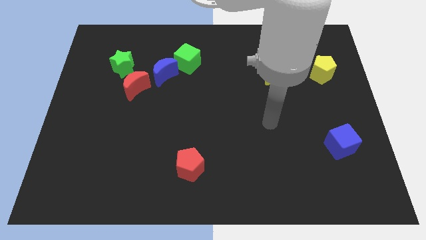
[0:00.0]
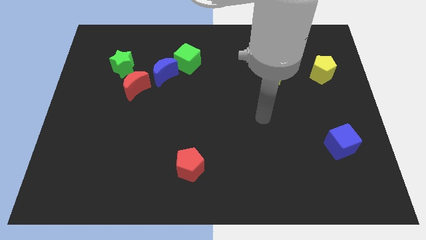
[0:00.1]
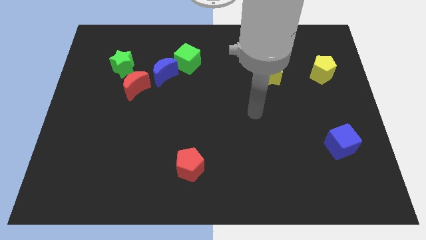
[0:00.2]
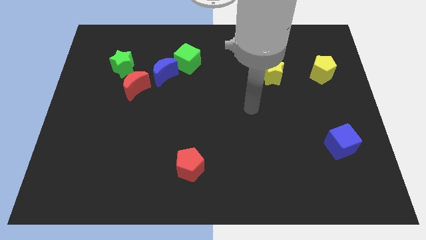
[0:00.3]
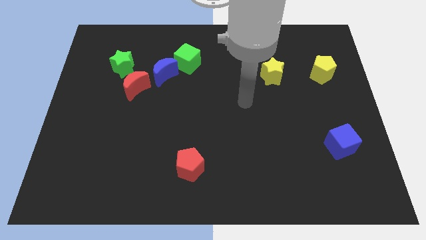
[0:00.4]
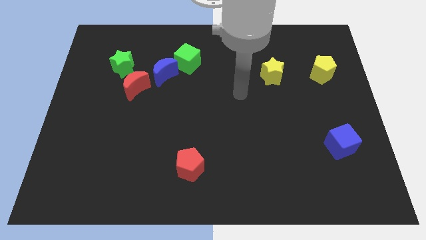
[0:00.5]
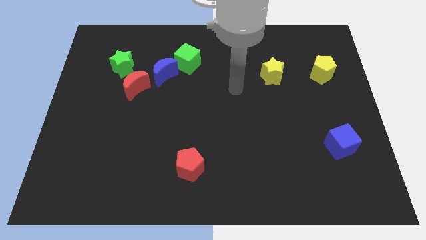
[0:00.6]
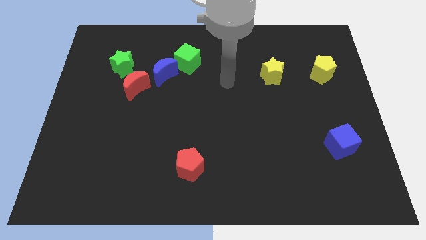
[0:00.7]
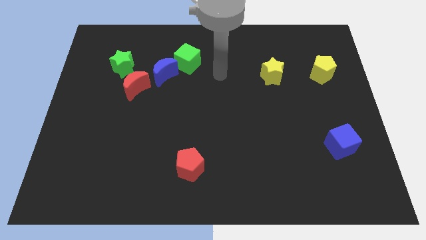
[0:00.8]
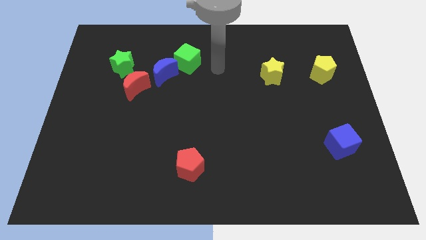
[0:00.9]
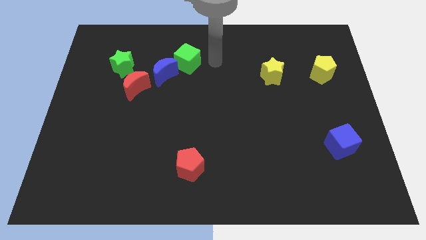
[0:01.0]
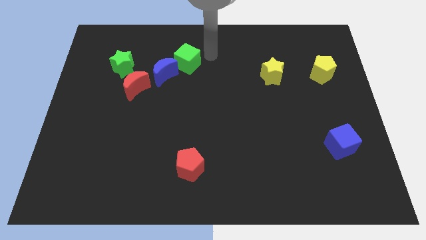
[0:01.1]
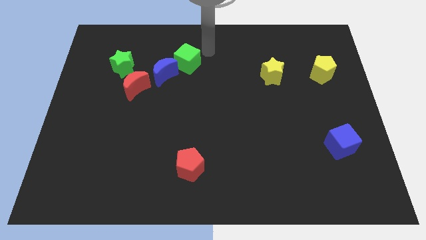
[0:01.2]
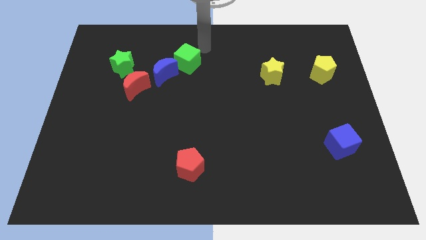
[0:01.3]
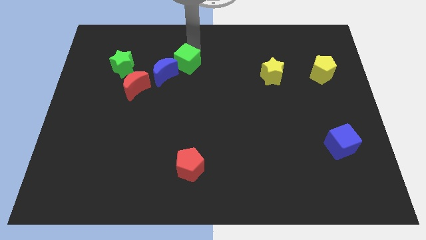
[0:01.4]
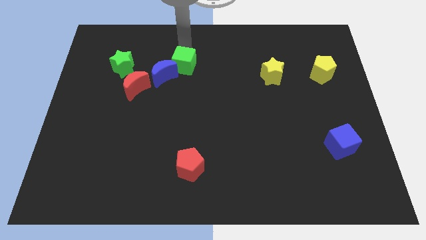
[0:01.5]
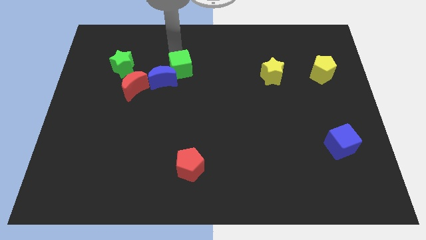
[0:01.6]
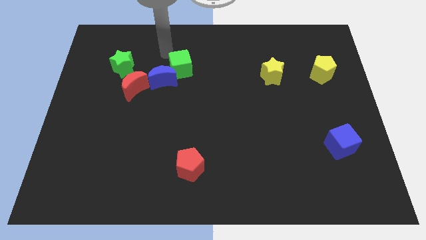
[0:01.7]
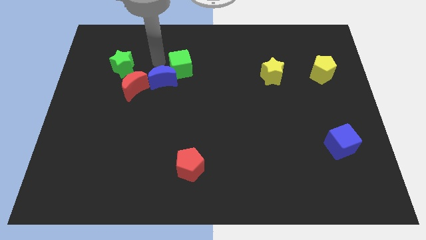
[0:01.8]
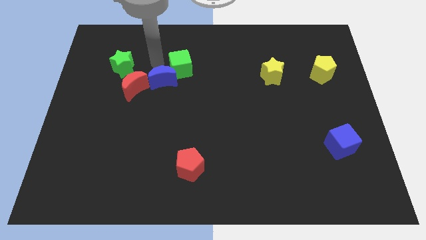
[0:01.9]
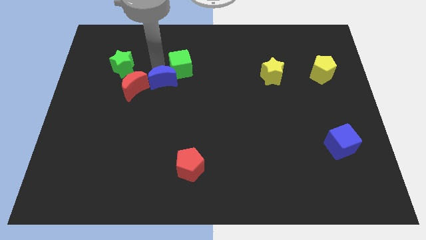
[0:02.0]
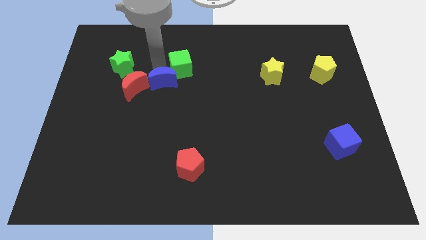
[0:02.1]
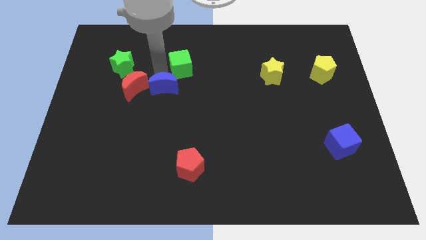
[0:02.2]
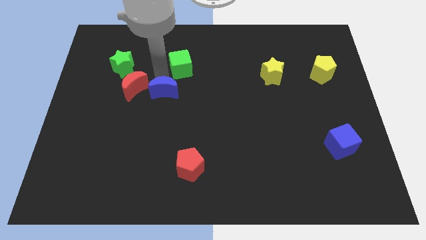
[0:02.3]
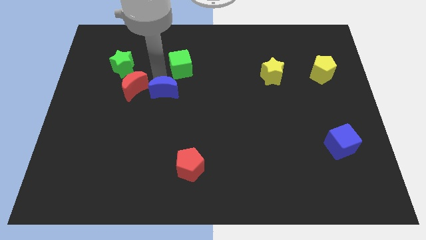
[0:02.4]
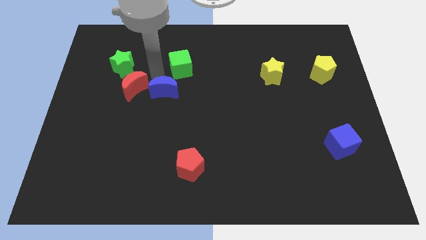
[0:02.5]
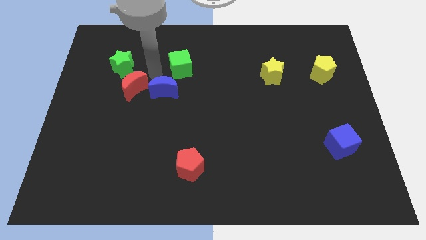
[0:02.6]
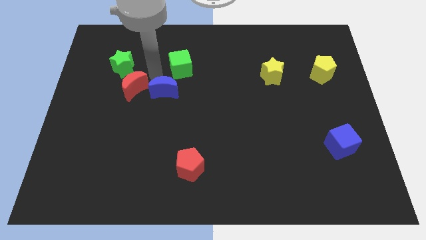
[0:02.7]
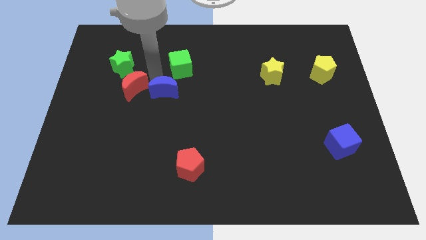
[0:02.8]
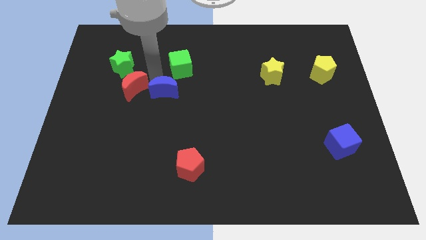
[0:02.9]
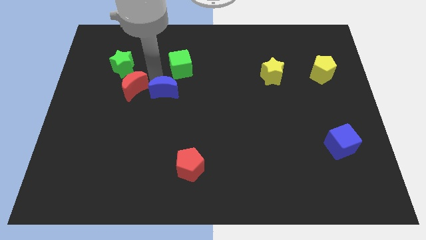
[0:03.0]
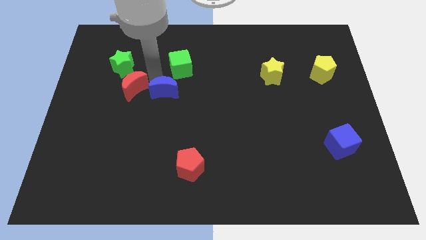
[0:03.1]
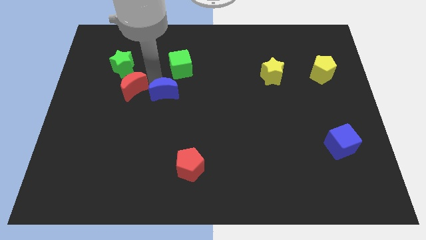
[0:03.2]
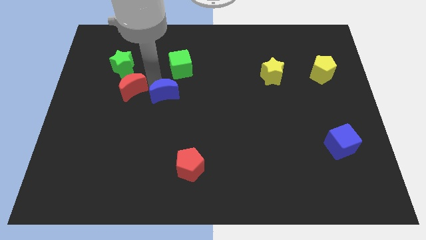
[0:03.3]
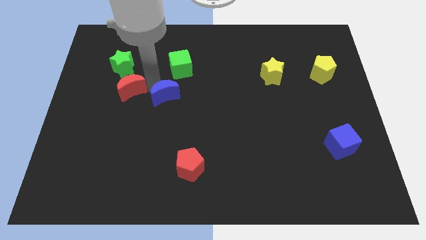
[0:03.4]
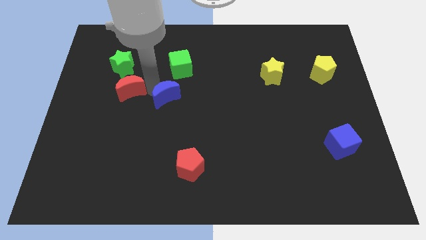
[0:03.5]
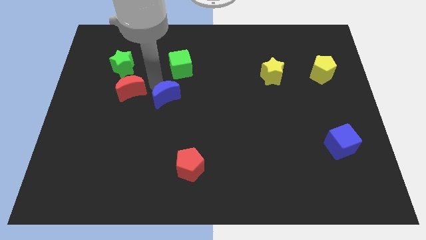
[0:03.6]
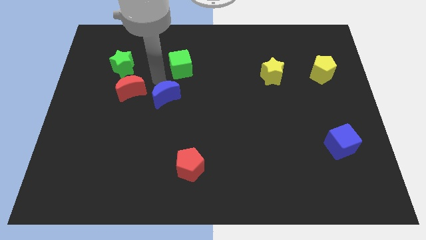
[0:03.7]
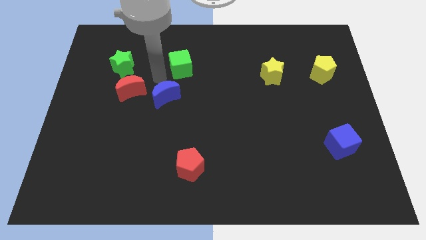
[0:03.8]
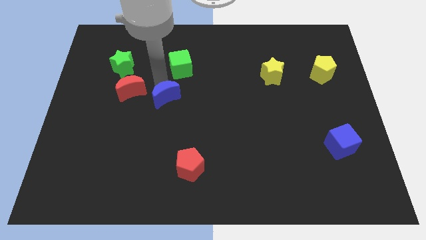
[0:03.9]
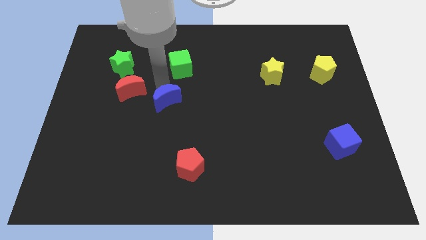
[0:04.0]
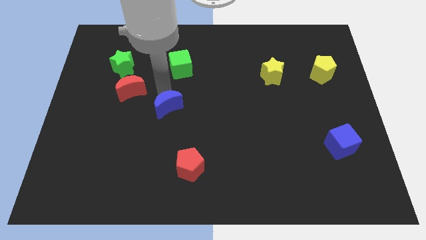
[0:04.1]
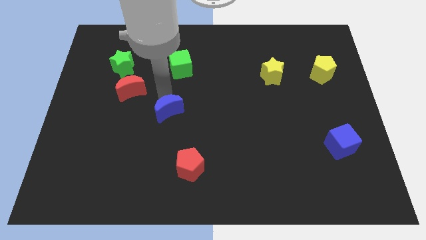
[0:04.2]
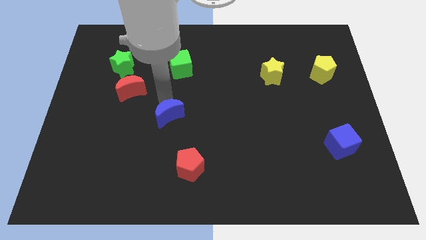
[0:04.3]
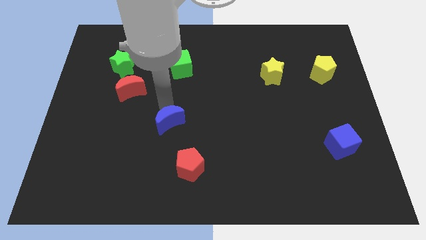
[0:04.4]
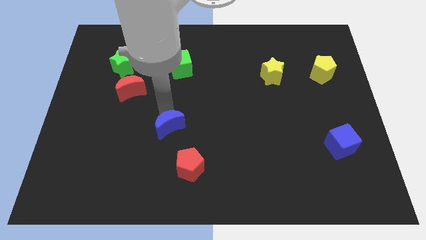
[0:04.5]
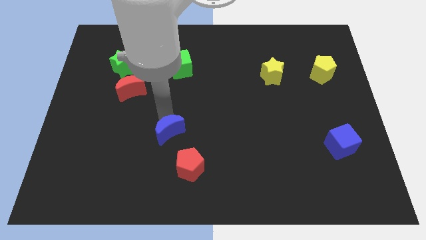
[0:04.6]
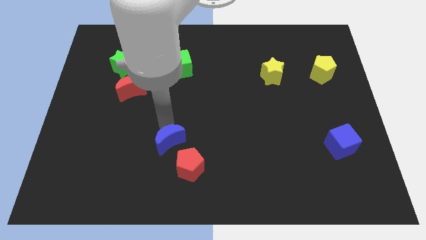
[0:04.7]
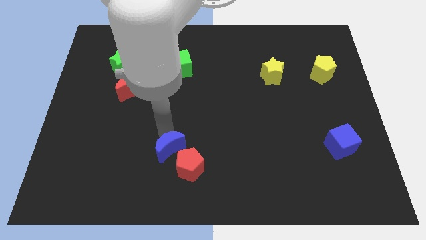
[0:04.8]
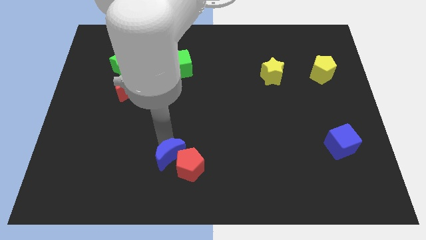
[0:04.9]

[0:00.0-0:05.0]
put the blue moon close to the red pentagon

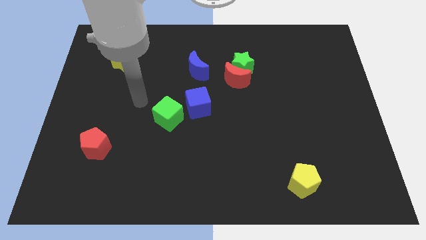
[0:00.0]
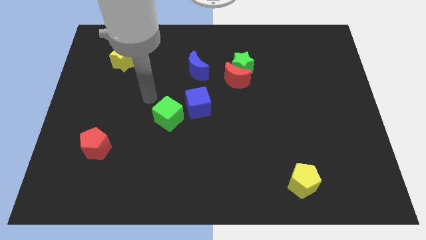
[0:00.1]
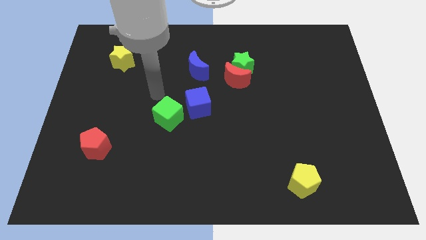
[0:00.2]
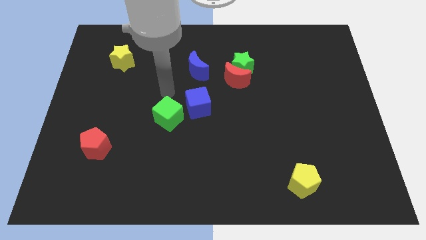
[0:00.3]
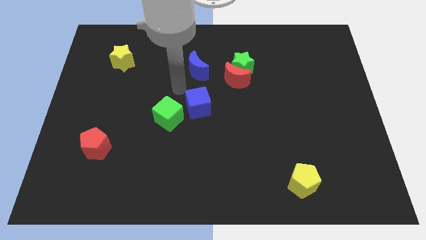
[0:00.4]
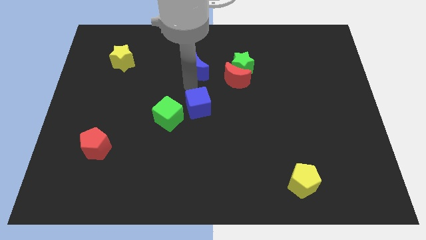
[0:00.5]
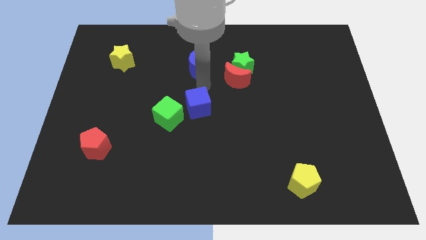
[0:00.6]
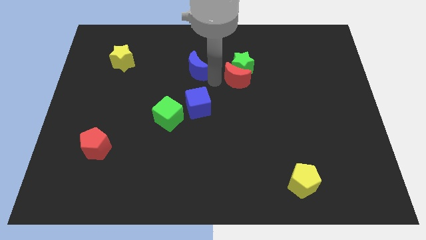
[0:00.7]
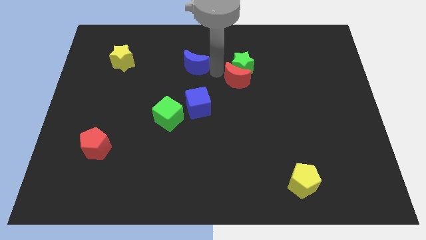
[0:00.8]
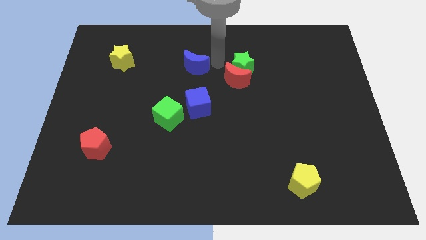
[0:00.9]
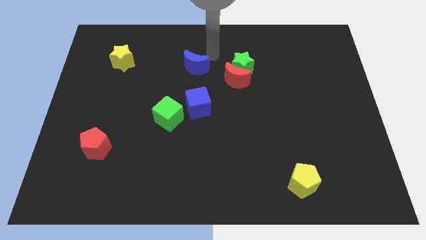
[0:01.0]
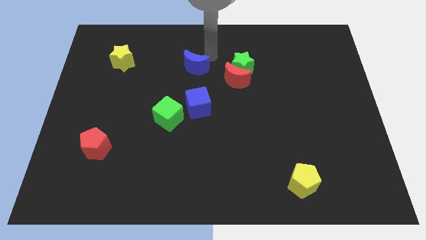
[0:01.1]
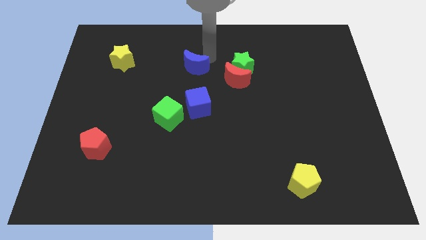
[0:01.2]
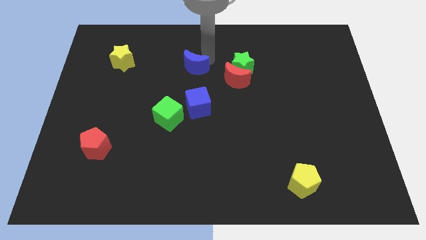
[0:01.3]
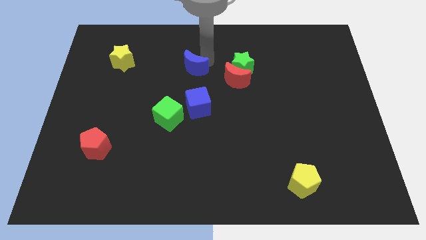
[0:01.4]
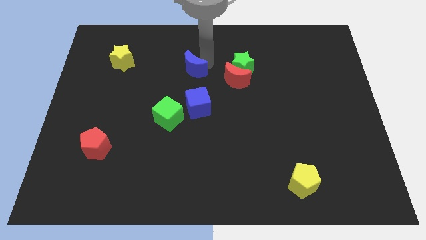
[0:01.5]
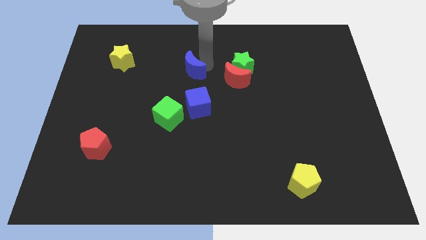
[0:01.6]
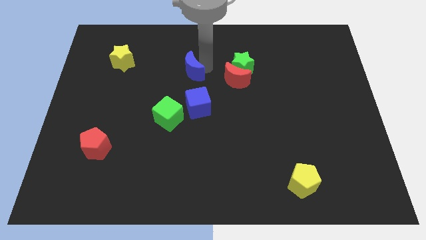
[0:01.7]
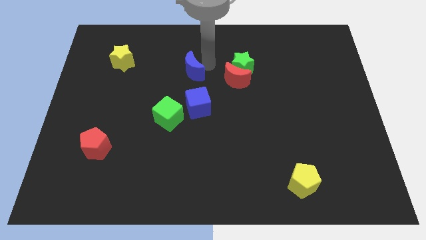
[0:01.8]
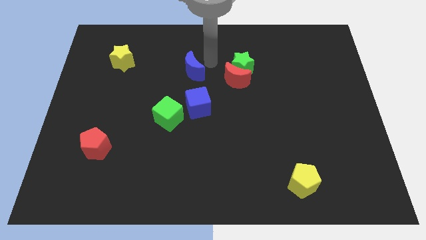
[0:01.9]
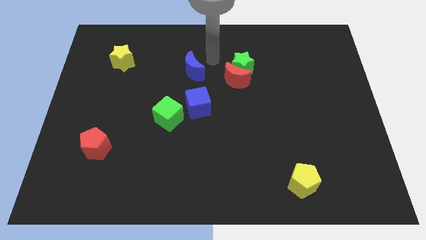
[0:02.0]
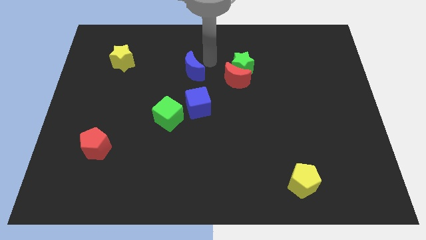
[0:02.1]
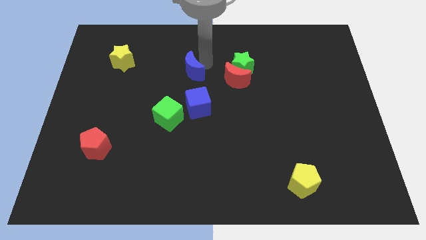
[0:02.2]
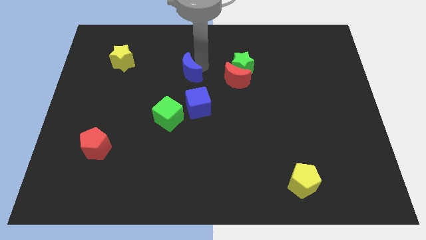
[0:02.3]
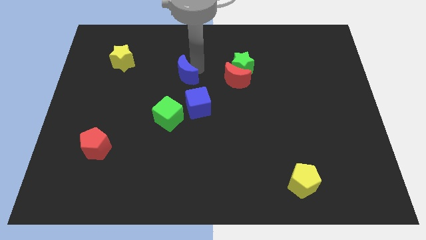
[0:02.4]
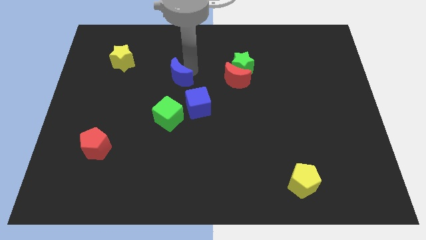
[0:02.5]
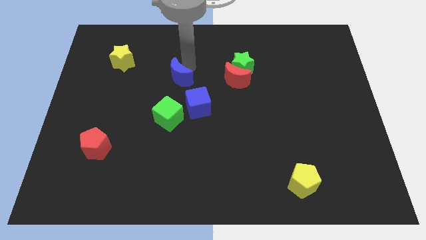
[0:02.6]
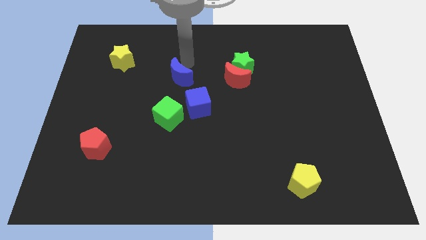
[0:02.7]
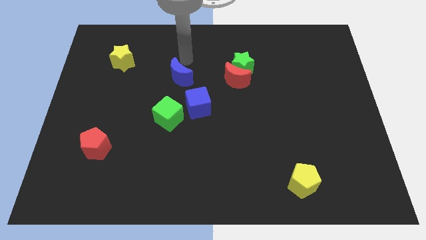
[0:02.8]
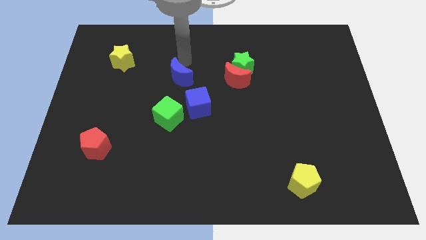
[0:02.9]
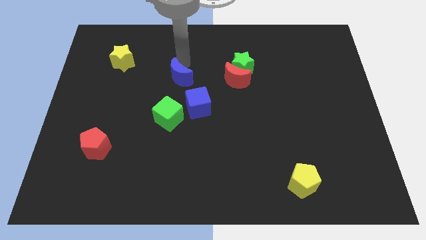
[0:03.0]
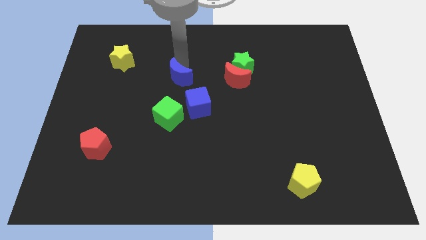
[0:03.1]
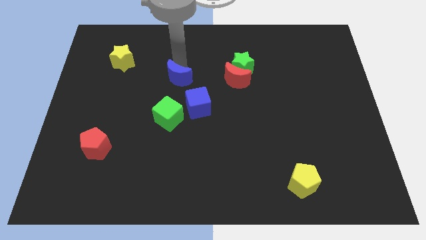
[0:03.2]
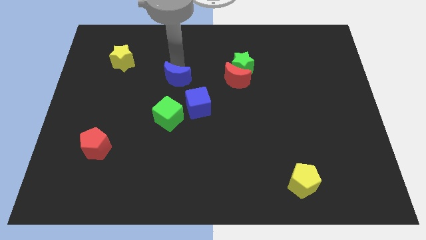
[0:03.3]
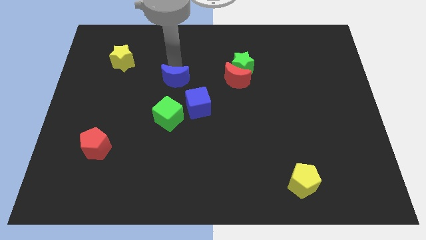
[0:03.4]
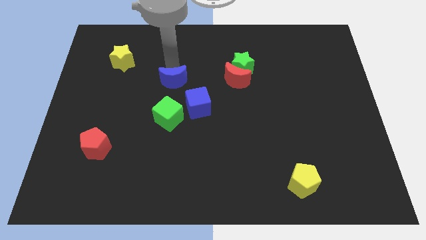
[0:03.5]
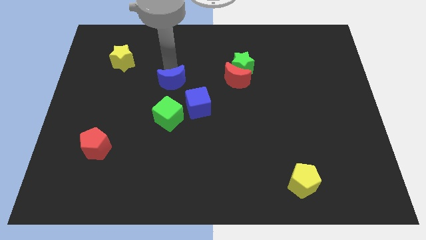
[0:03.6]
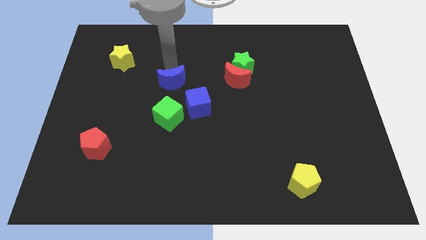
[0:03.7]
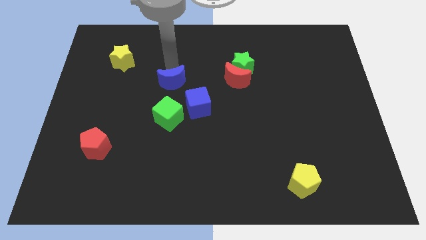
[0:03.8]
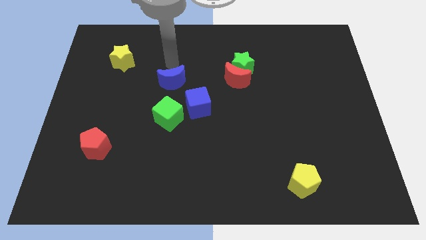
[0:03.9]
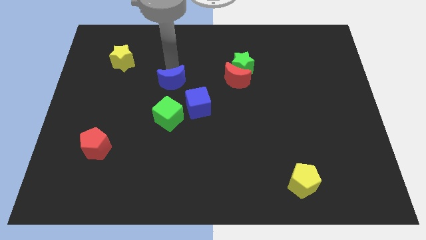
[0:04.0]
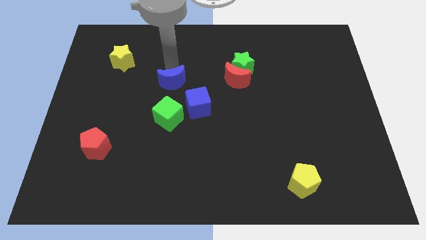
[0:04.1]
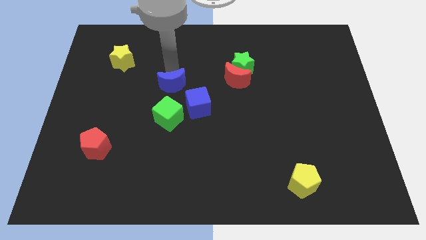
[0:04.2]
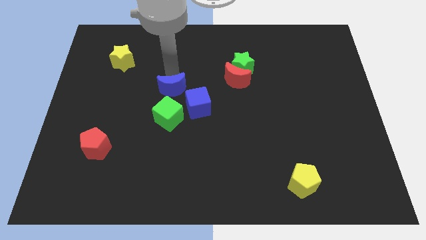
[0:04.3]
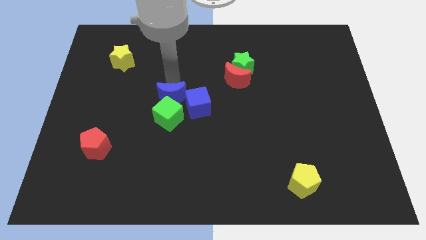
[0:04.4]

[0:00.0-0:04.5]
put the blue moon towards the green cube
